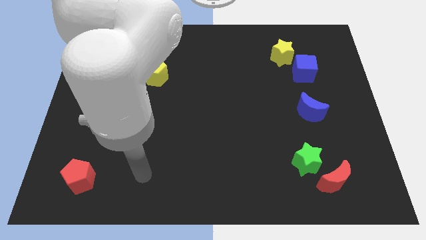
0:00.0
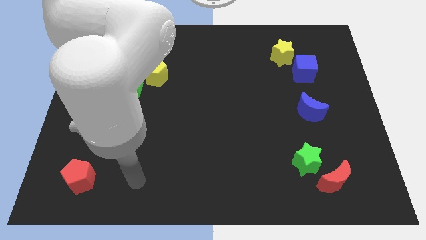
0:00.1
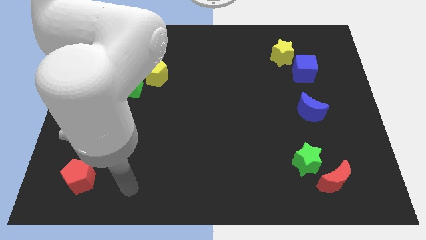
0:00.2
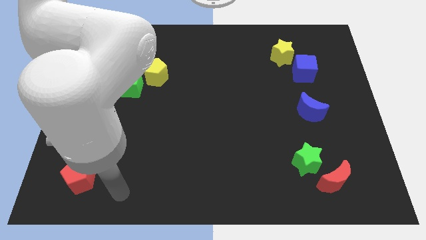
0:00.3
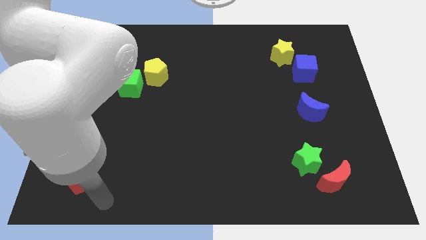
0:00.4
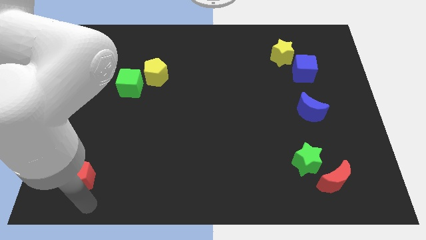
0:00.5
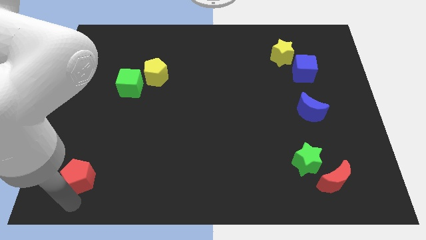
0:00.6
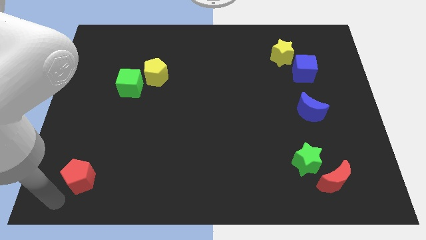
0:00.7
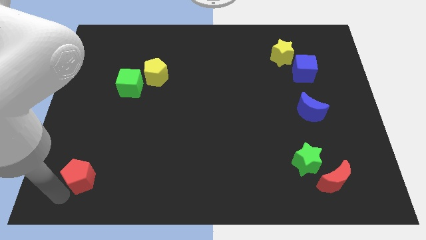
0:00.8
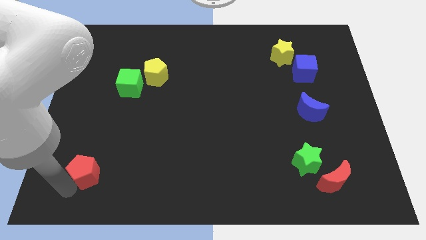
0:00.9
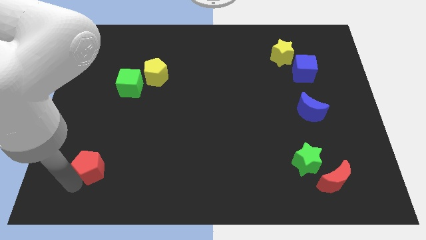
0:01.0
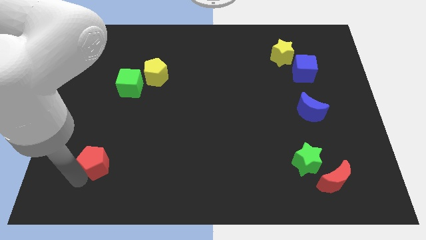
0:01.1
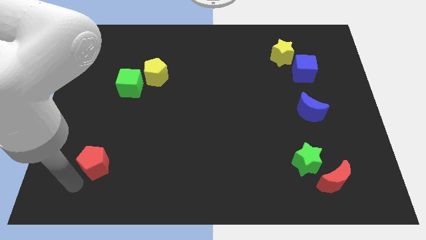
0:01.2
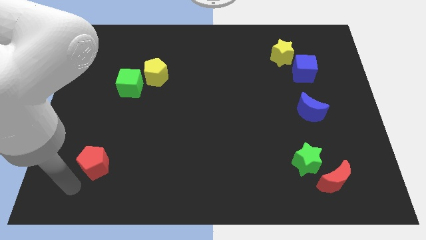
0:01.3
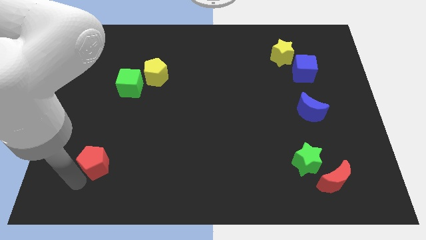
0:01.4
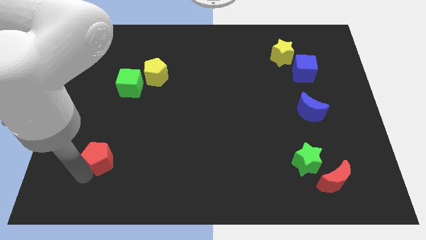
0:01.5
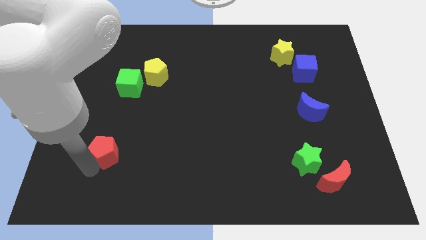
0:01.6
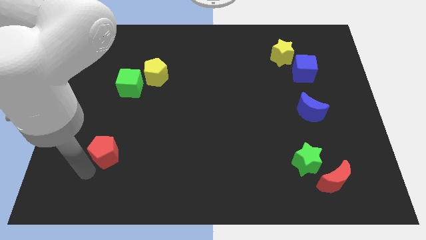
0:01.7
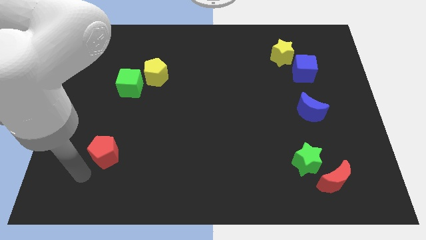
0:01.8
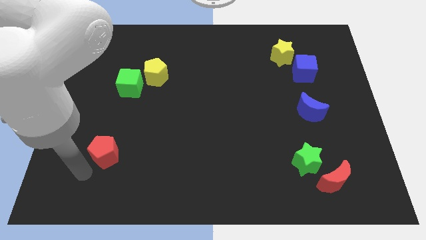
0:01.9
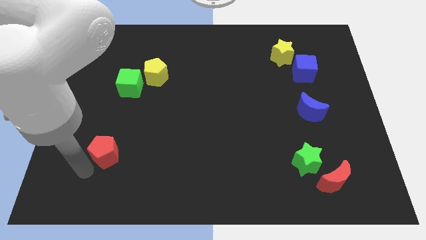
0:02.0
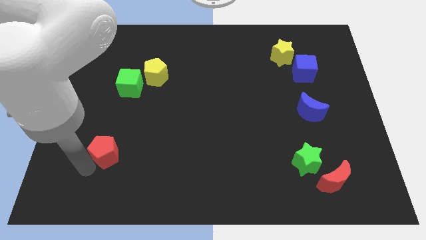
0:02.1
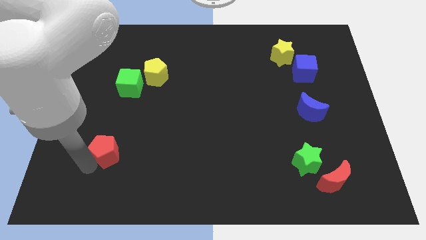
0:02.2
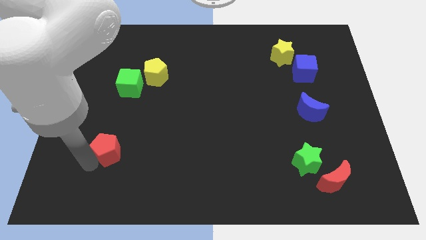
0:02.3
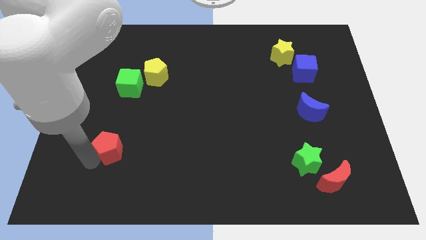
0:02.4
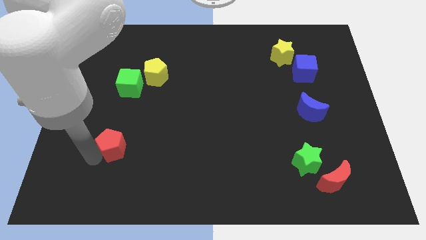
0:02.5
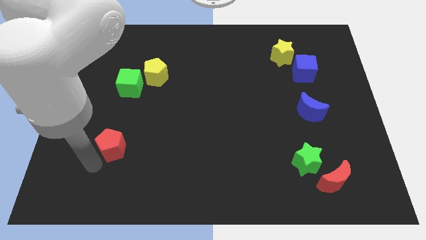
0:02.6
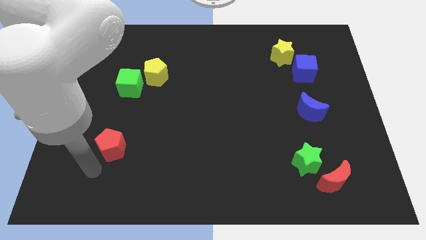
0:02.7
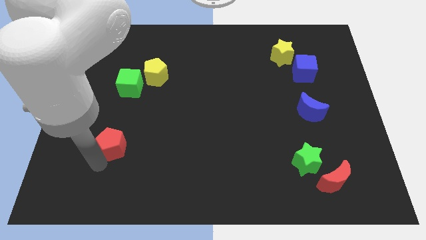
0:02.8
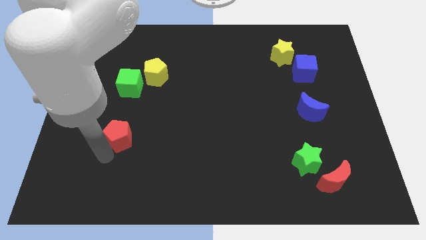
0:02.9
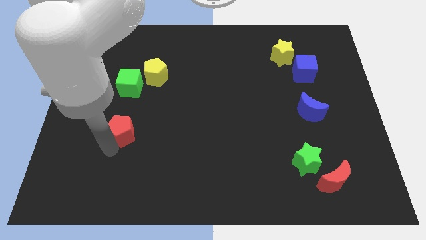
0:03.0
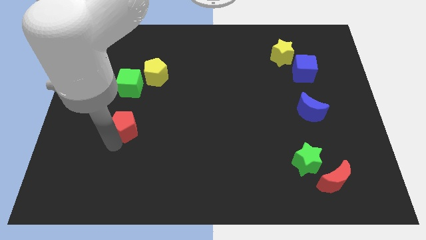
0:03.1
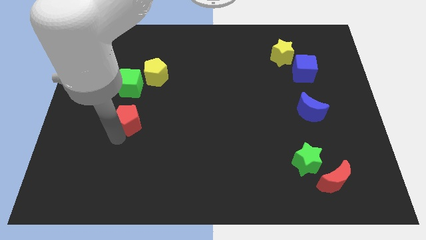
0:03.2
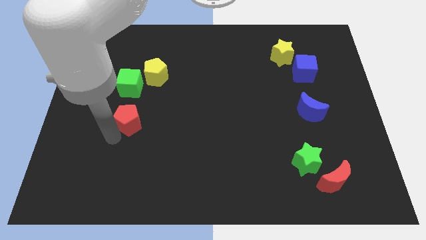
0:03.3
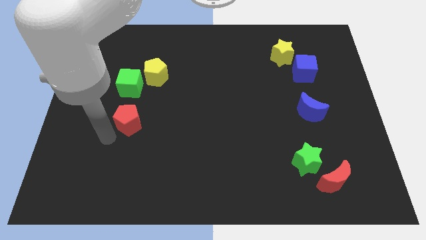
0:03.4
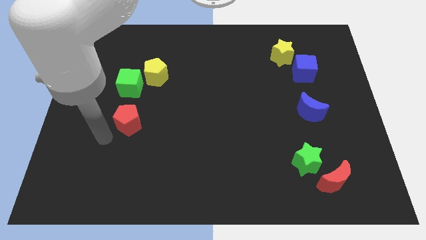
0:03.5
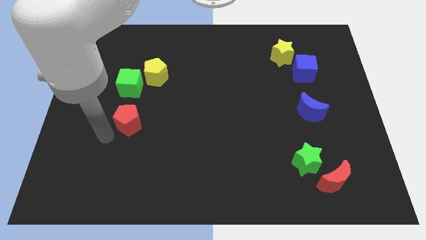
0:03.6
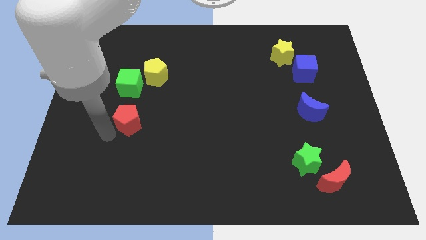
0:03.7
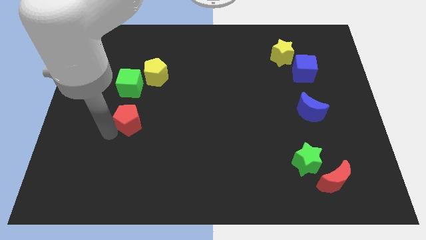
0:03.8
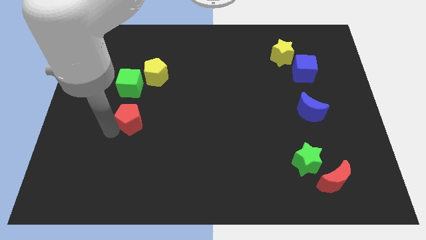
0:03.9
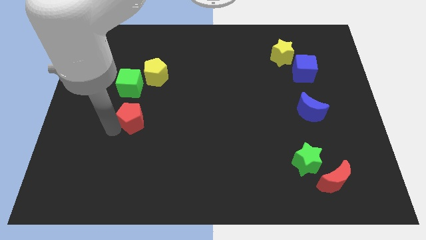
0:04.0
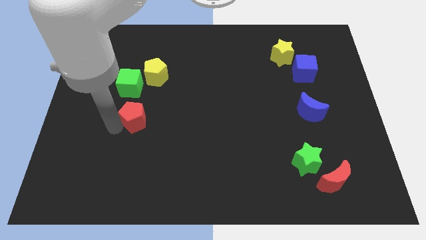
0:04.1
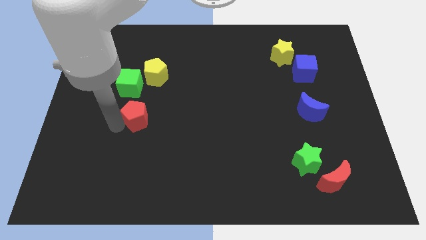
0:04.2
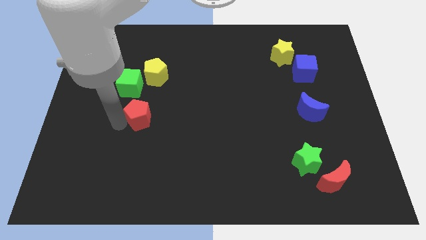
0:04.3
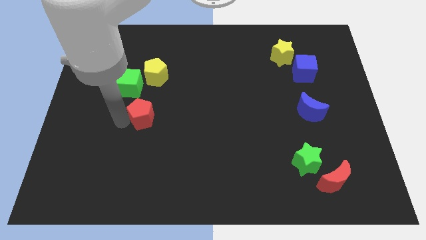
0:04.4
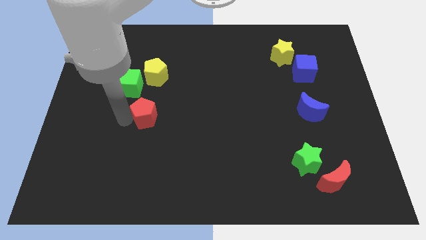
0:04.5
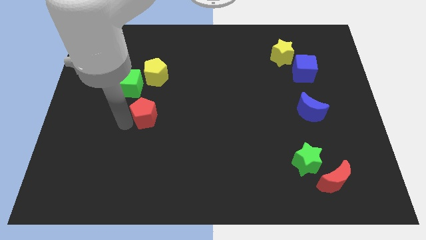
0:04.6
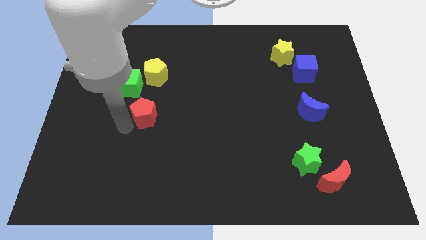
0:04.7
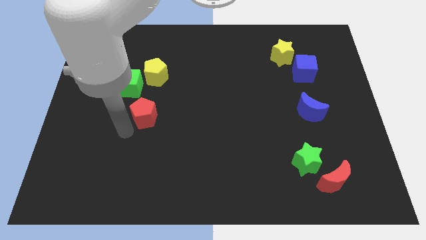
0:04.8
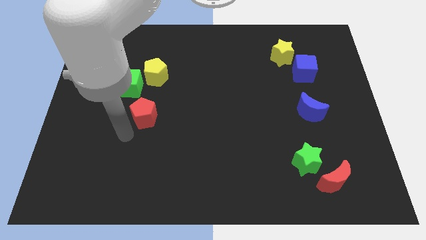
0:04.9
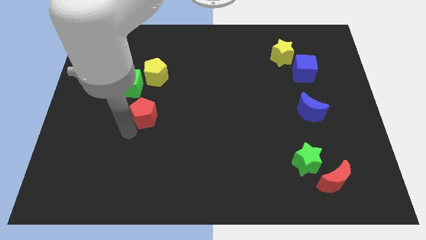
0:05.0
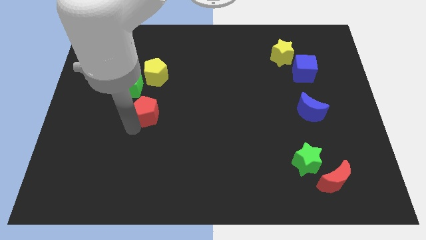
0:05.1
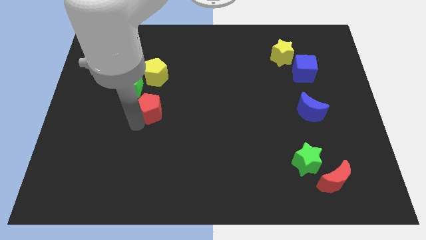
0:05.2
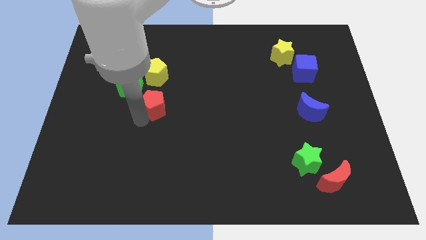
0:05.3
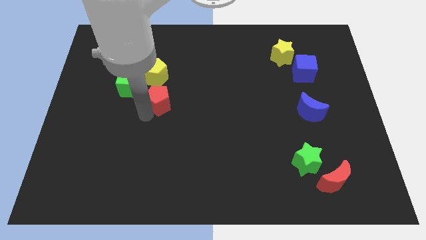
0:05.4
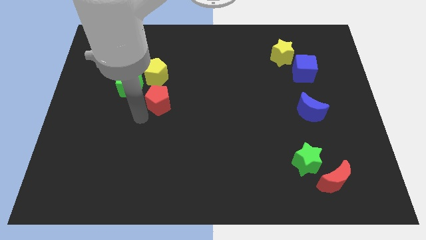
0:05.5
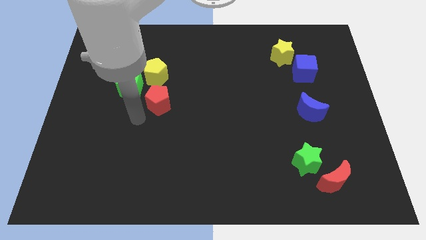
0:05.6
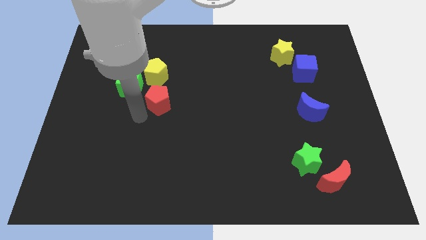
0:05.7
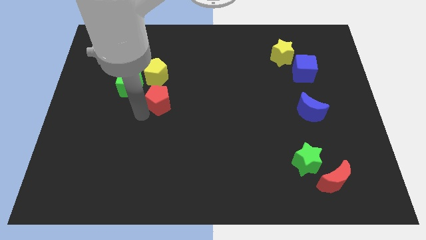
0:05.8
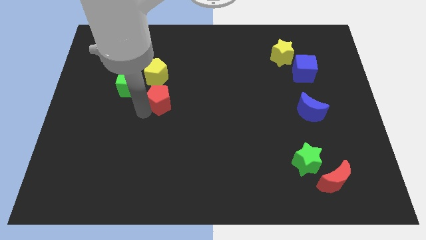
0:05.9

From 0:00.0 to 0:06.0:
move the red pentagon to the bottom right of the yellow pentagon

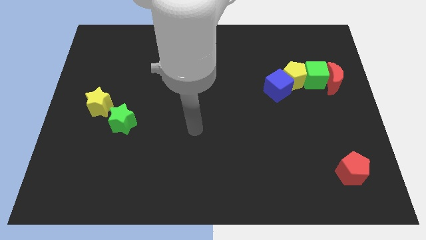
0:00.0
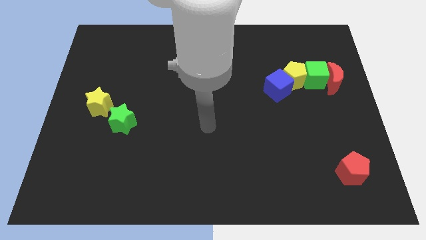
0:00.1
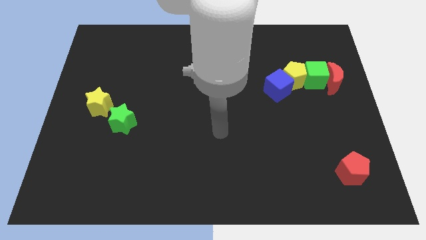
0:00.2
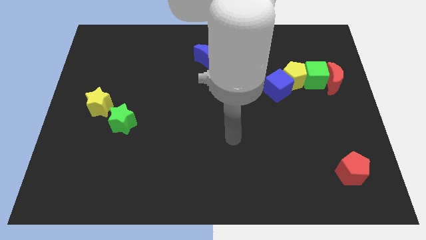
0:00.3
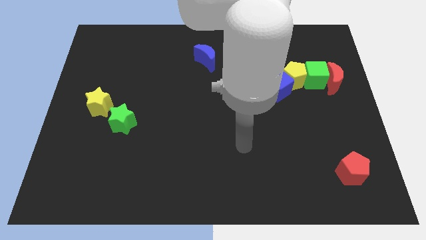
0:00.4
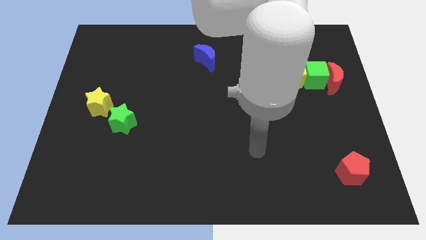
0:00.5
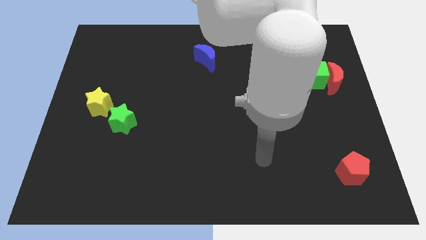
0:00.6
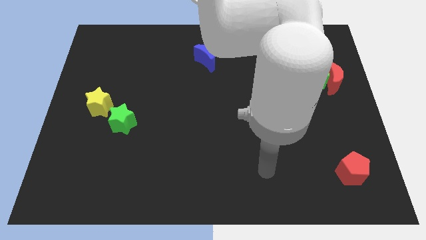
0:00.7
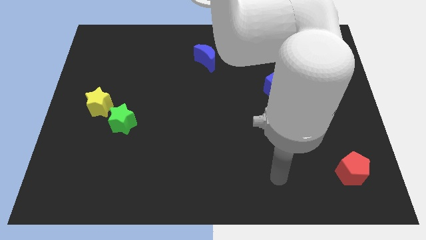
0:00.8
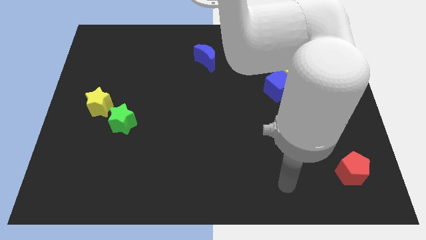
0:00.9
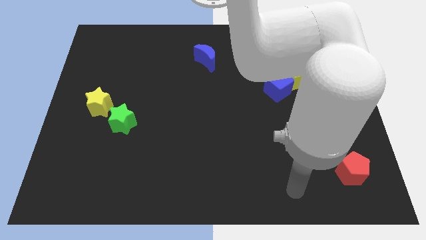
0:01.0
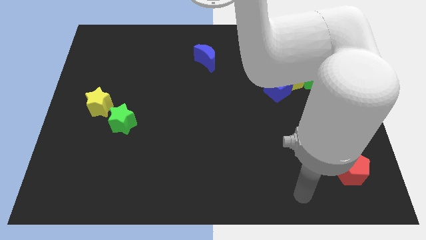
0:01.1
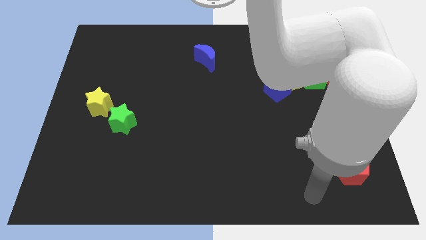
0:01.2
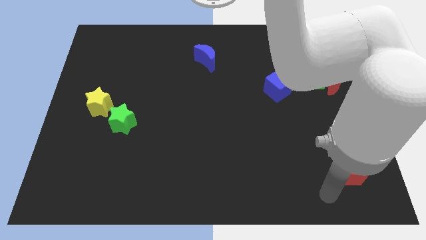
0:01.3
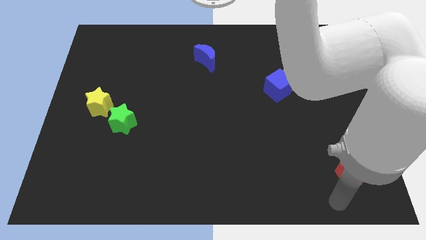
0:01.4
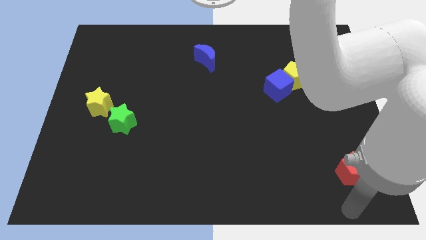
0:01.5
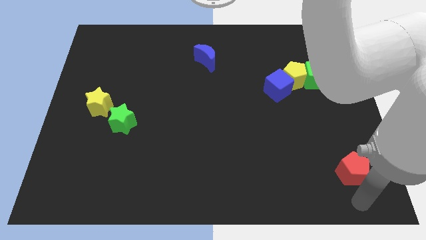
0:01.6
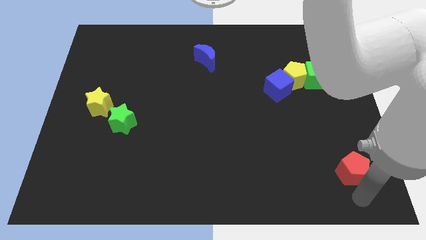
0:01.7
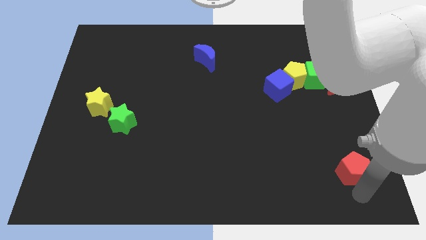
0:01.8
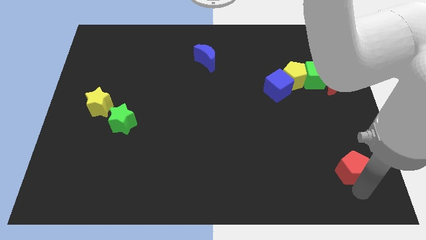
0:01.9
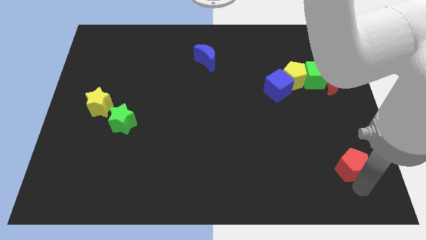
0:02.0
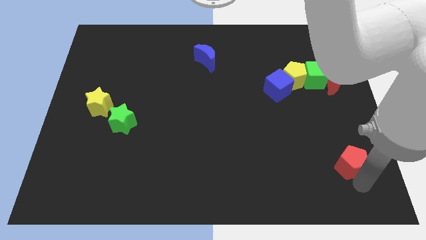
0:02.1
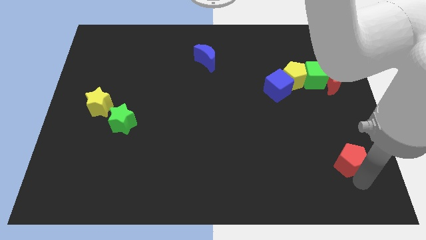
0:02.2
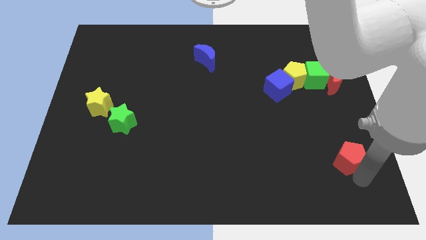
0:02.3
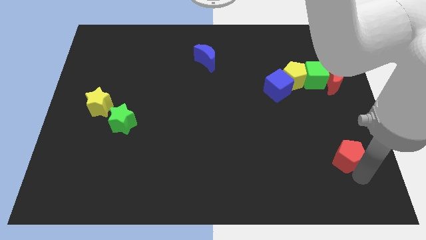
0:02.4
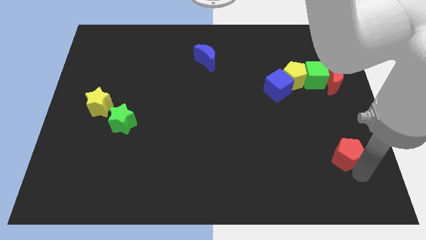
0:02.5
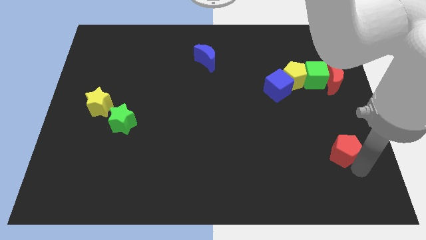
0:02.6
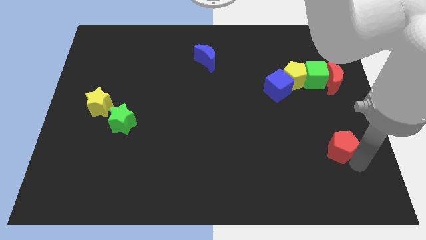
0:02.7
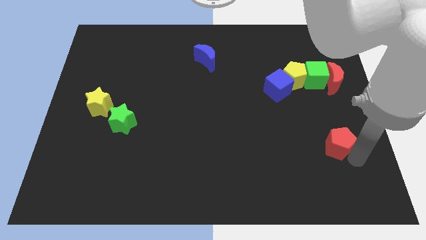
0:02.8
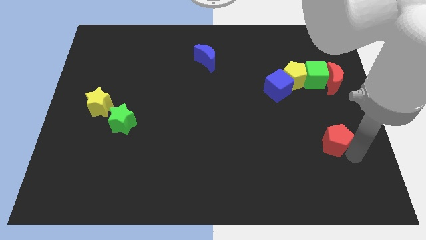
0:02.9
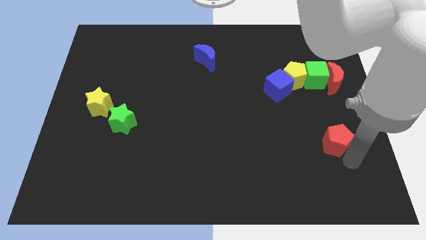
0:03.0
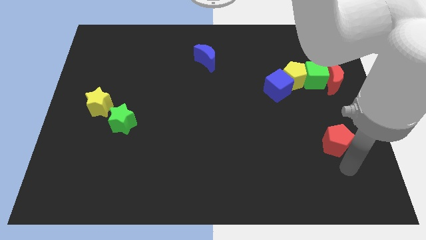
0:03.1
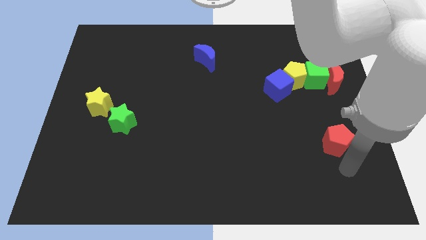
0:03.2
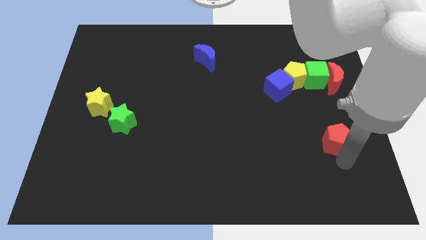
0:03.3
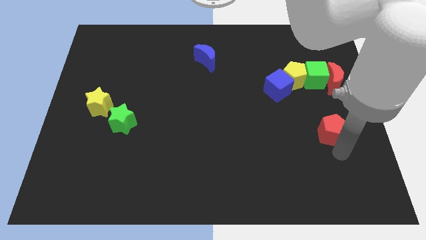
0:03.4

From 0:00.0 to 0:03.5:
push the red pentagon to the bottom of the green cube
